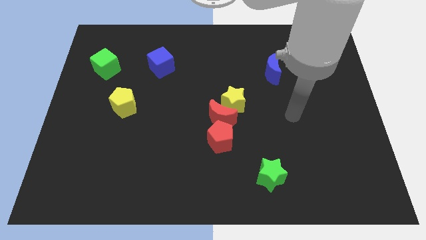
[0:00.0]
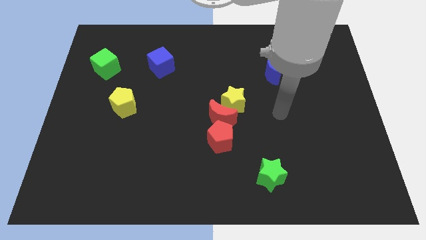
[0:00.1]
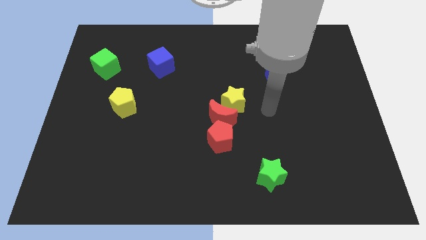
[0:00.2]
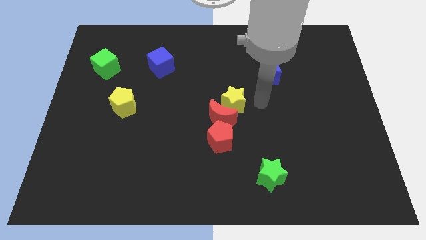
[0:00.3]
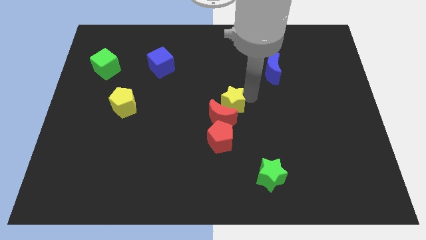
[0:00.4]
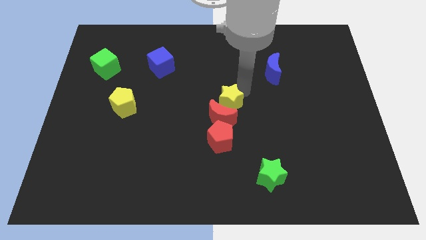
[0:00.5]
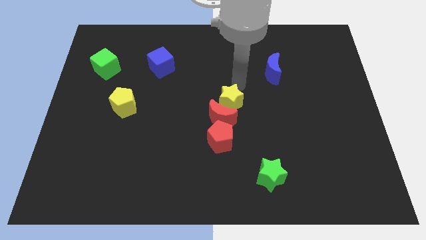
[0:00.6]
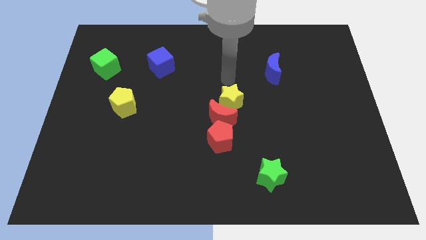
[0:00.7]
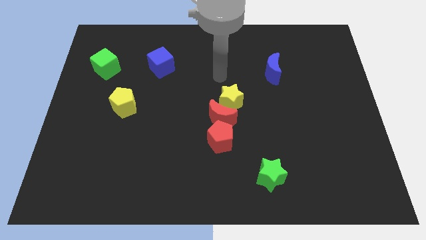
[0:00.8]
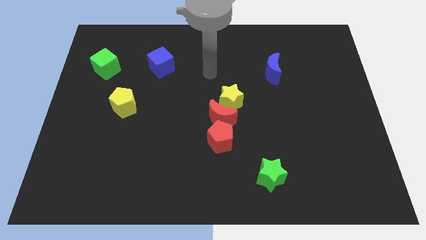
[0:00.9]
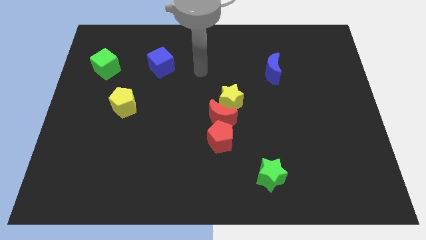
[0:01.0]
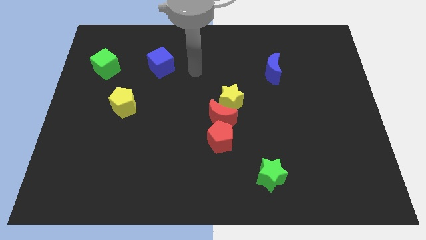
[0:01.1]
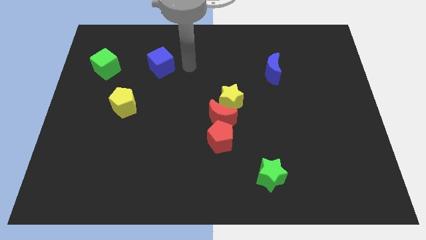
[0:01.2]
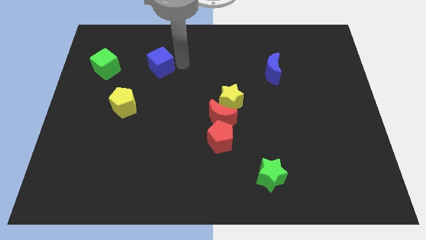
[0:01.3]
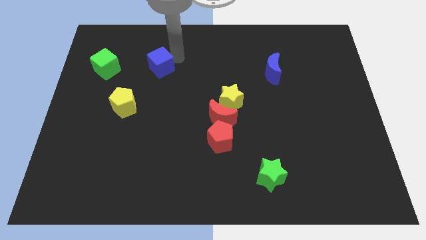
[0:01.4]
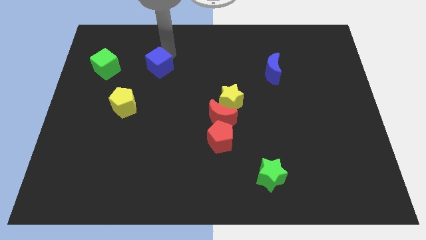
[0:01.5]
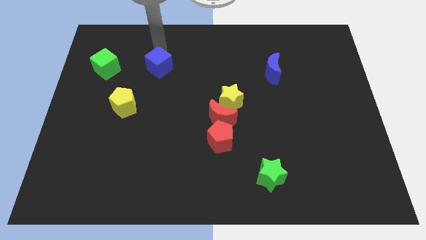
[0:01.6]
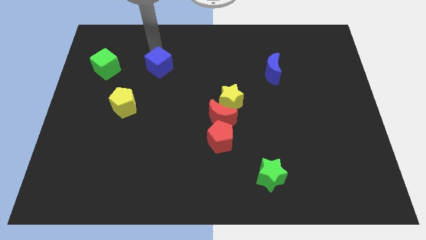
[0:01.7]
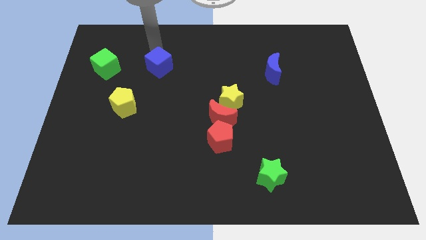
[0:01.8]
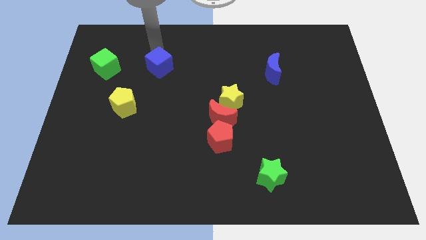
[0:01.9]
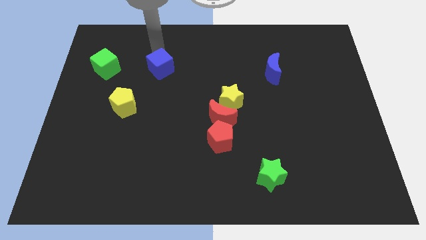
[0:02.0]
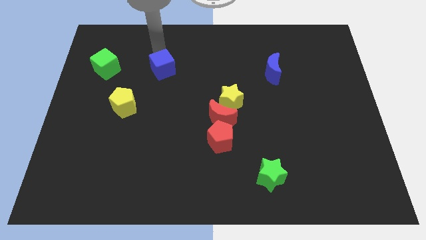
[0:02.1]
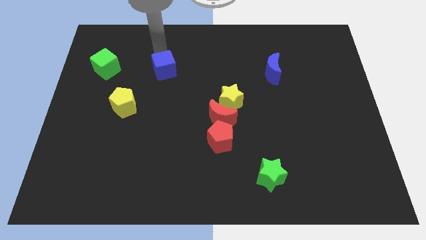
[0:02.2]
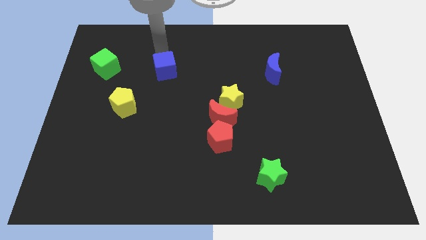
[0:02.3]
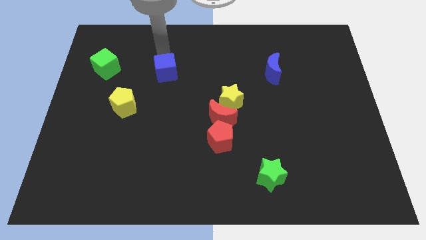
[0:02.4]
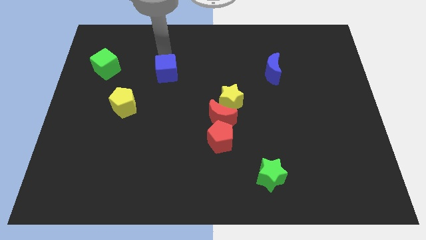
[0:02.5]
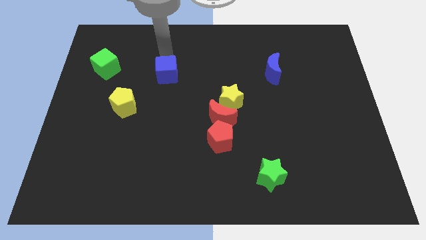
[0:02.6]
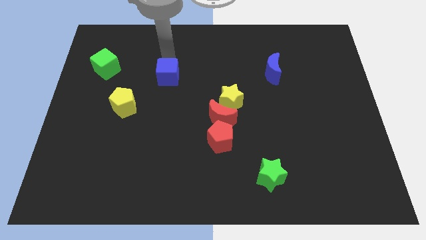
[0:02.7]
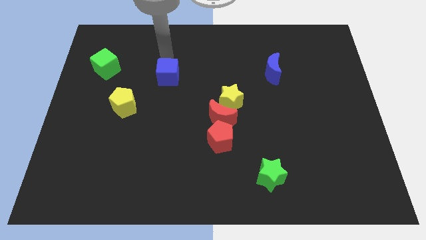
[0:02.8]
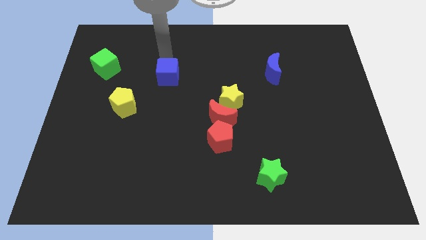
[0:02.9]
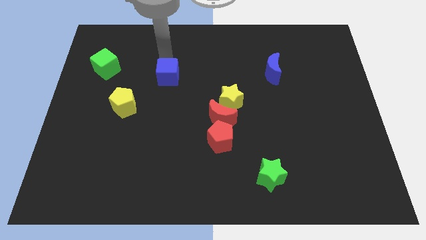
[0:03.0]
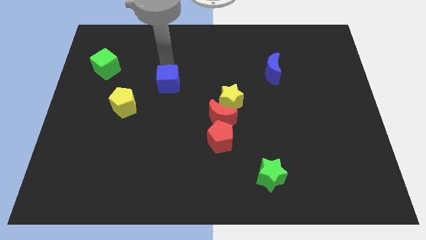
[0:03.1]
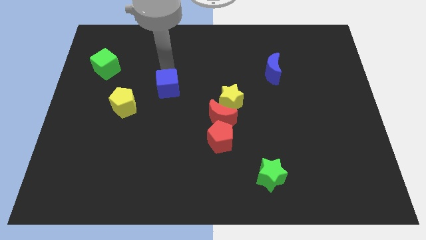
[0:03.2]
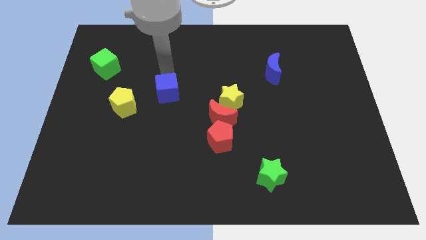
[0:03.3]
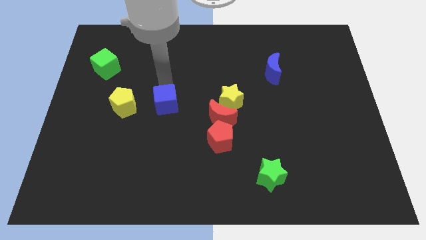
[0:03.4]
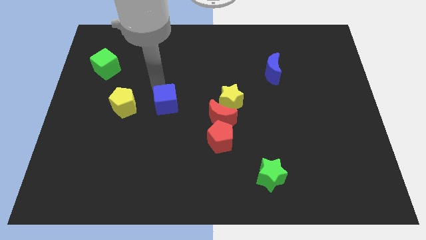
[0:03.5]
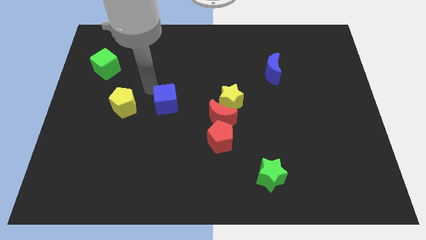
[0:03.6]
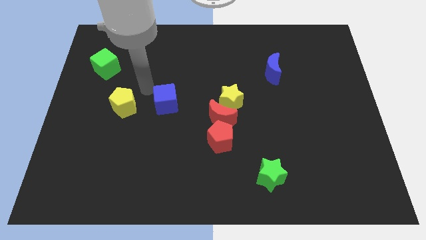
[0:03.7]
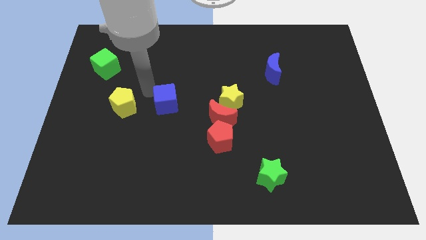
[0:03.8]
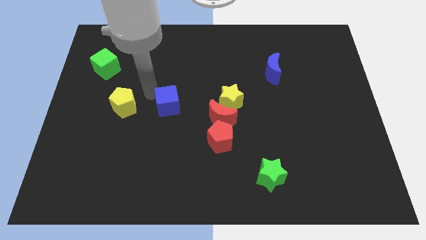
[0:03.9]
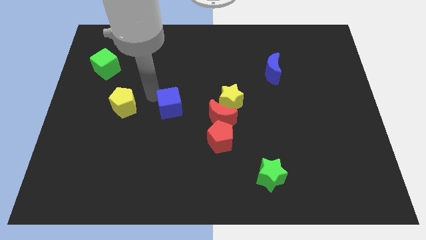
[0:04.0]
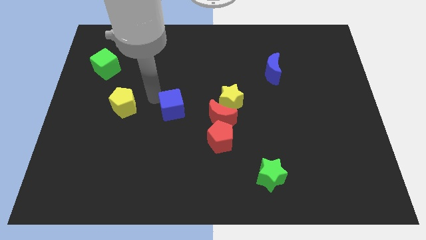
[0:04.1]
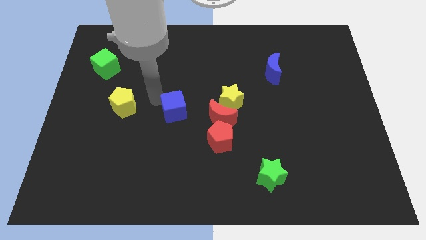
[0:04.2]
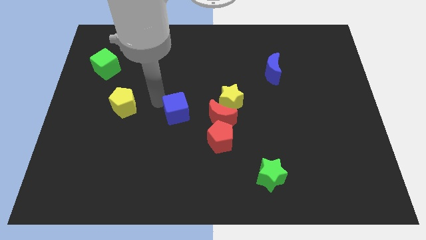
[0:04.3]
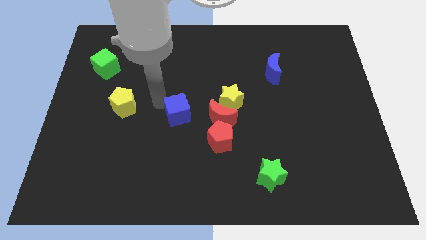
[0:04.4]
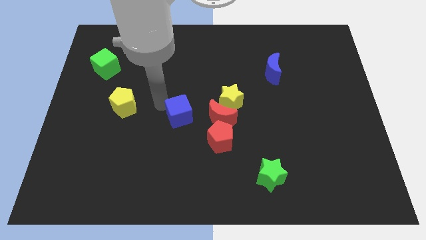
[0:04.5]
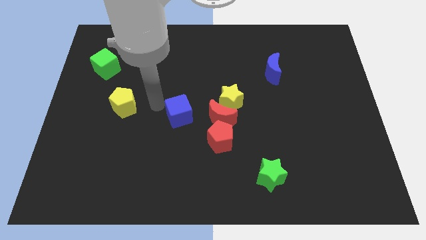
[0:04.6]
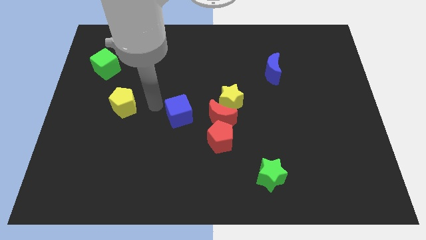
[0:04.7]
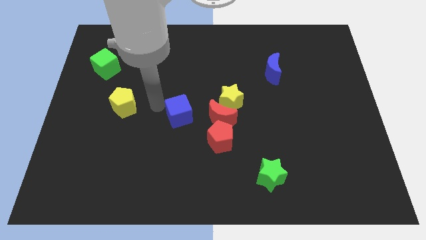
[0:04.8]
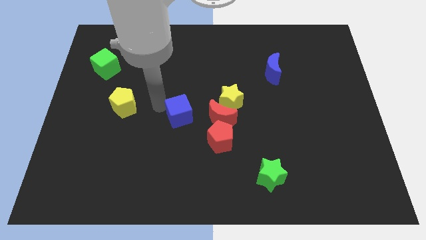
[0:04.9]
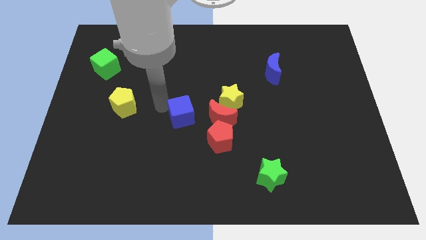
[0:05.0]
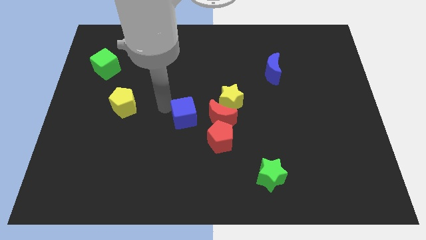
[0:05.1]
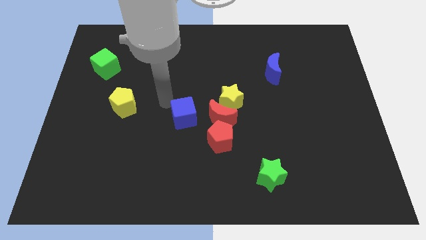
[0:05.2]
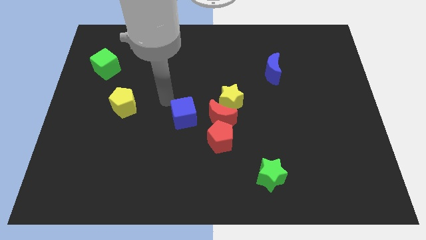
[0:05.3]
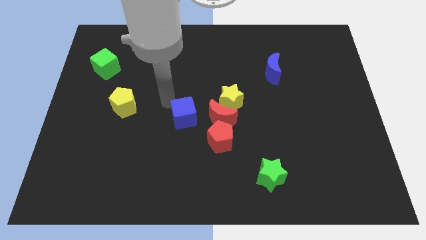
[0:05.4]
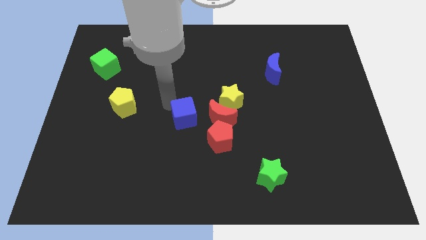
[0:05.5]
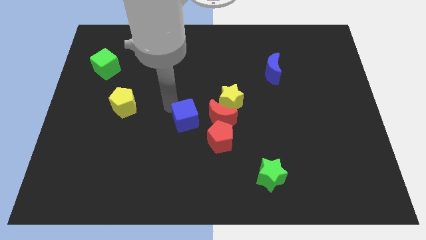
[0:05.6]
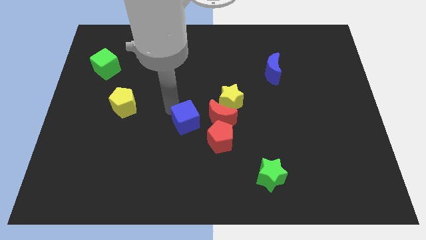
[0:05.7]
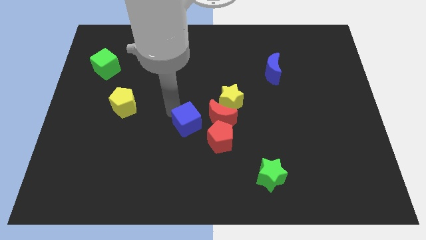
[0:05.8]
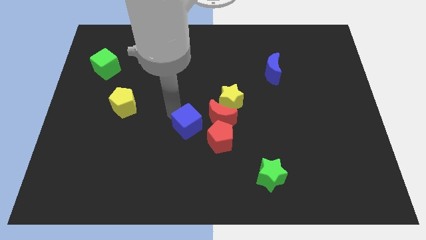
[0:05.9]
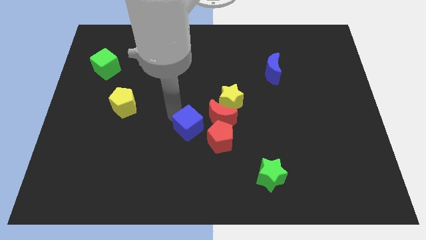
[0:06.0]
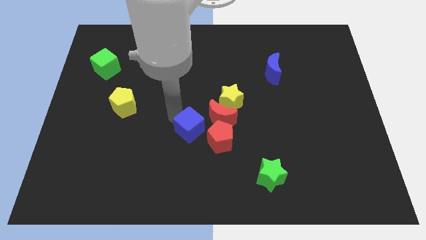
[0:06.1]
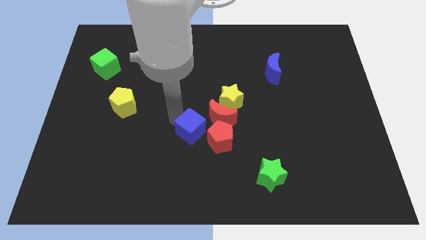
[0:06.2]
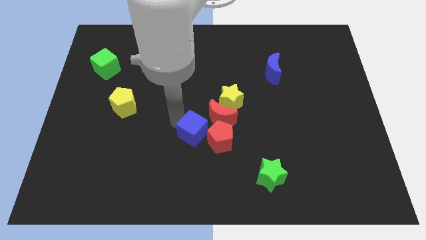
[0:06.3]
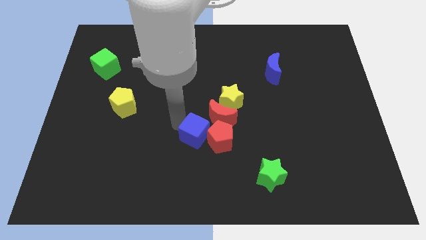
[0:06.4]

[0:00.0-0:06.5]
push the blue cube to the red pentagon

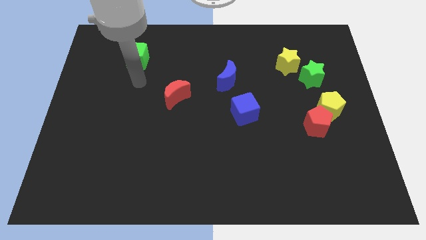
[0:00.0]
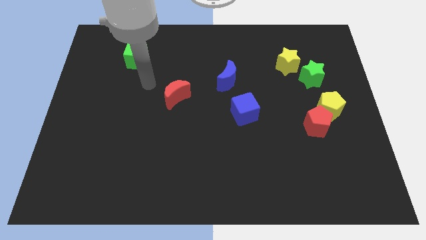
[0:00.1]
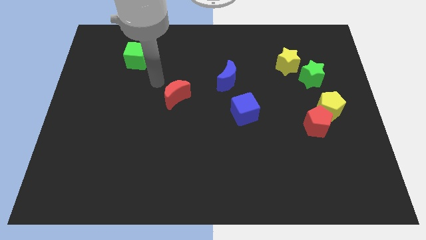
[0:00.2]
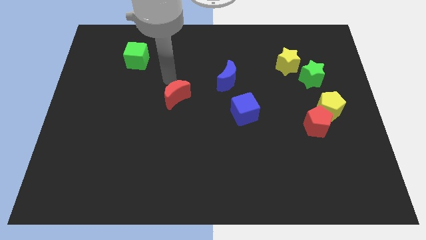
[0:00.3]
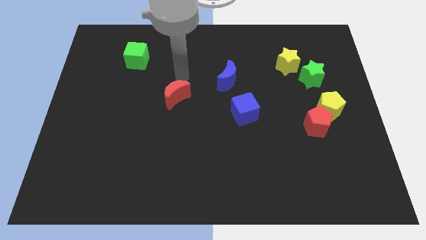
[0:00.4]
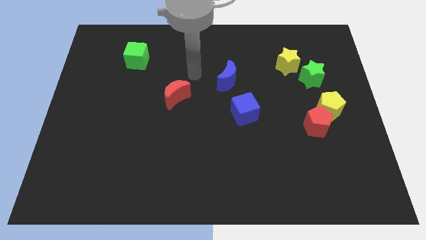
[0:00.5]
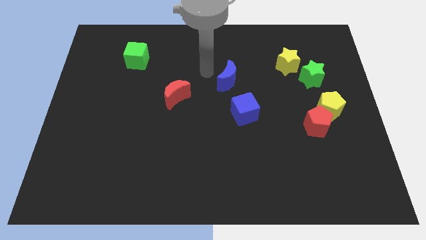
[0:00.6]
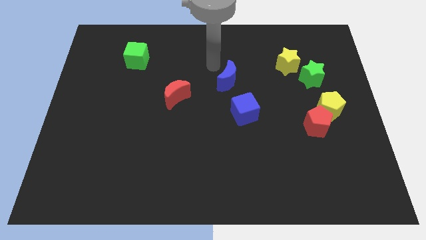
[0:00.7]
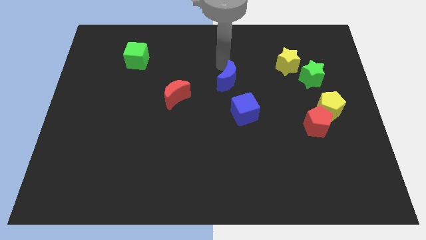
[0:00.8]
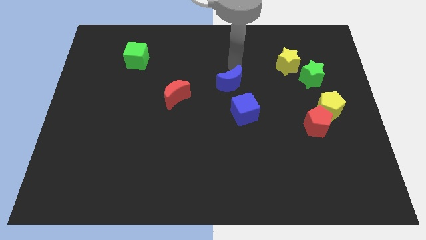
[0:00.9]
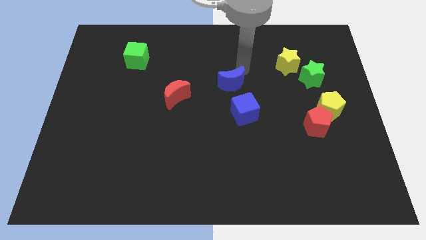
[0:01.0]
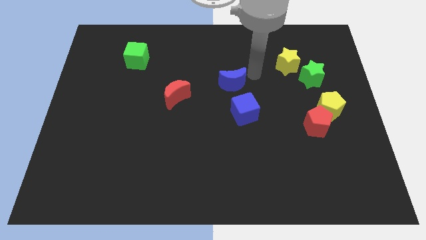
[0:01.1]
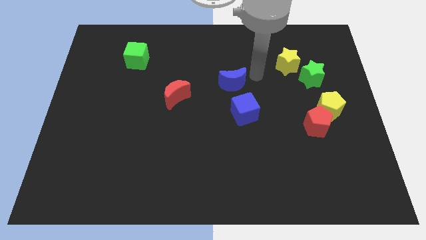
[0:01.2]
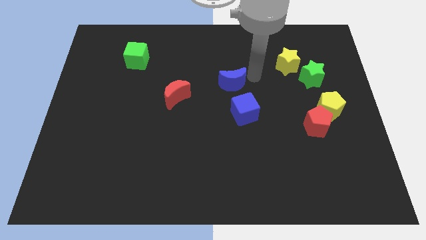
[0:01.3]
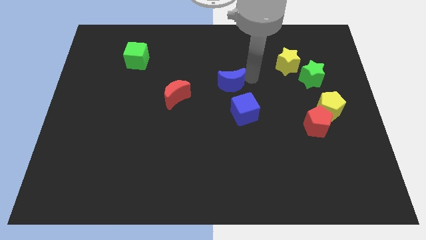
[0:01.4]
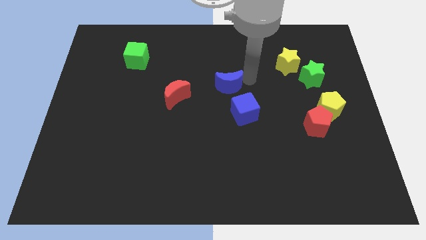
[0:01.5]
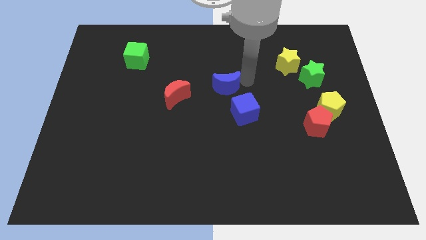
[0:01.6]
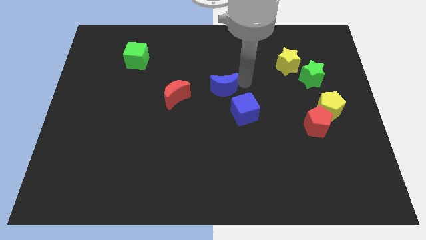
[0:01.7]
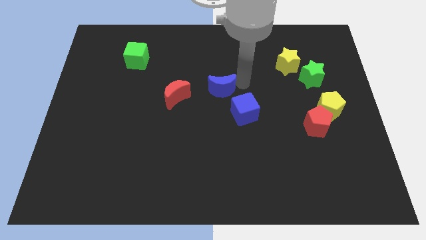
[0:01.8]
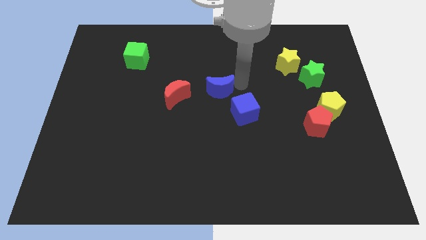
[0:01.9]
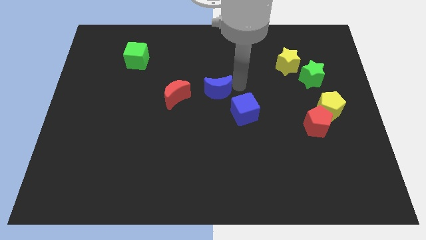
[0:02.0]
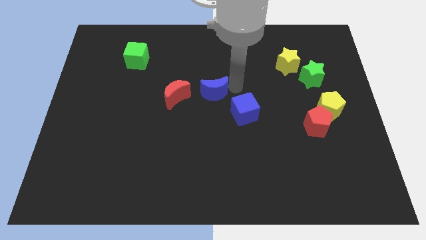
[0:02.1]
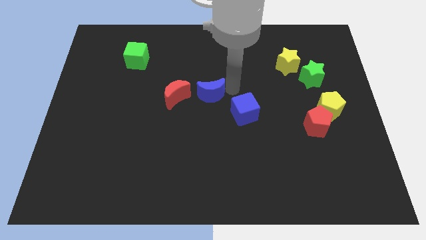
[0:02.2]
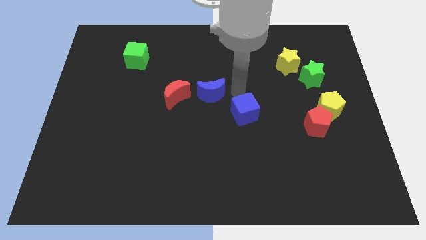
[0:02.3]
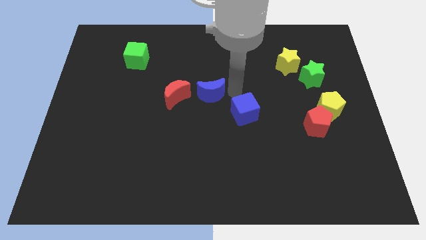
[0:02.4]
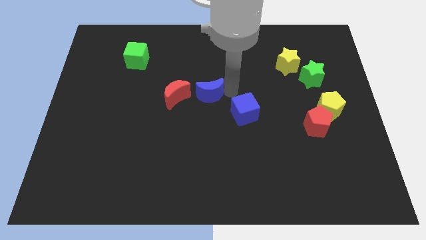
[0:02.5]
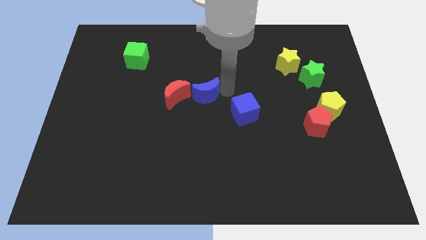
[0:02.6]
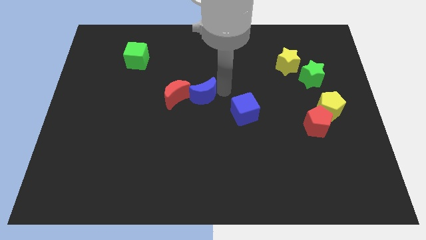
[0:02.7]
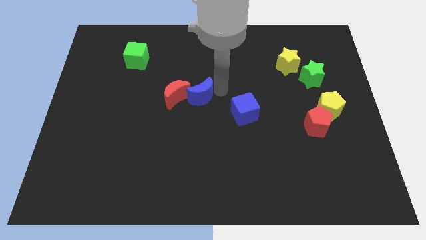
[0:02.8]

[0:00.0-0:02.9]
push the blue moon towards the red moon
